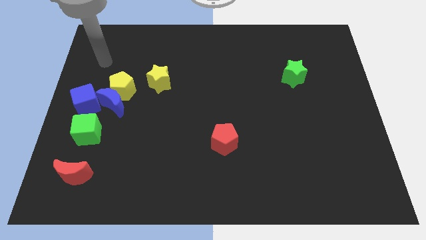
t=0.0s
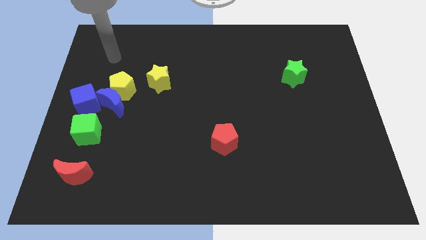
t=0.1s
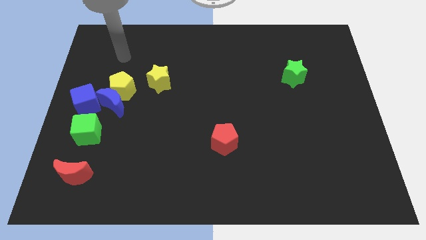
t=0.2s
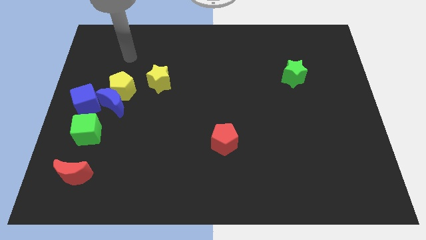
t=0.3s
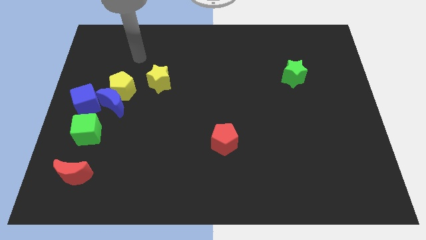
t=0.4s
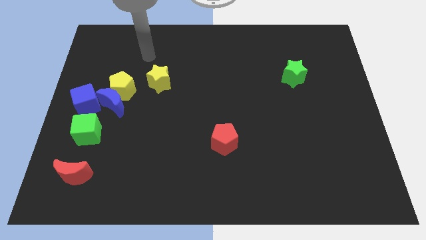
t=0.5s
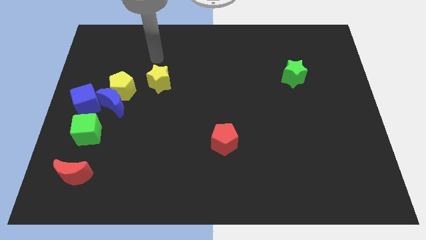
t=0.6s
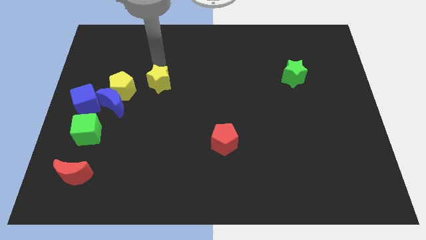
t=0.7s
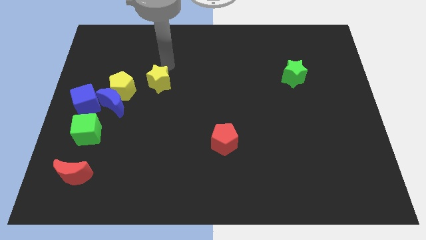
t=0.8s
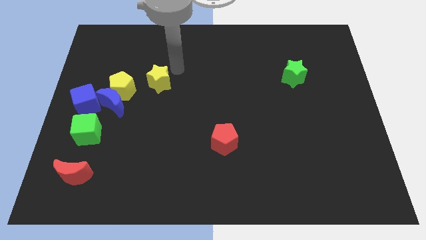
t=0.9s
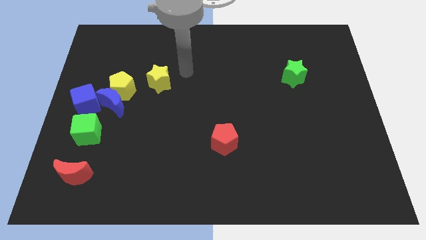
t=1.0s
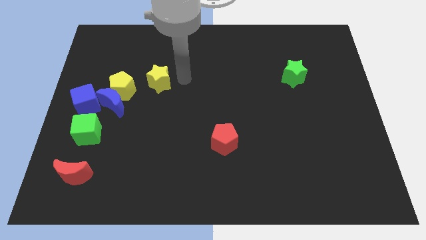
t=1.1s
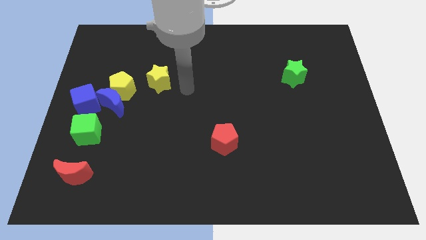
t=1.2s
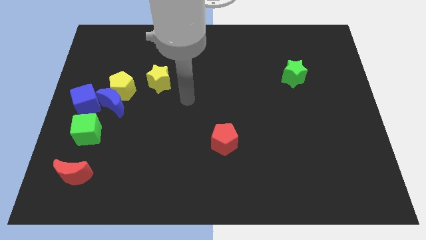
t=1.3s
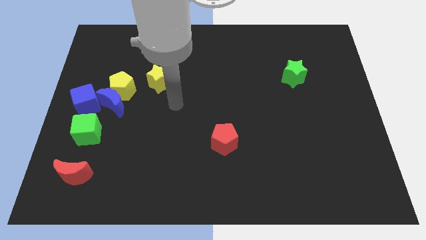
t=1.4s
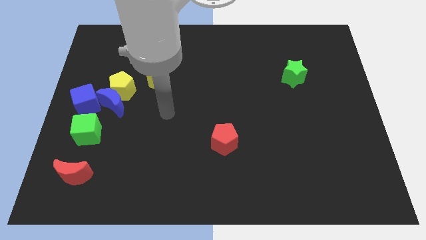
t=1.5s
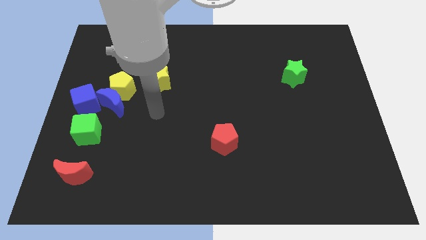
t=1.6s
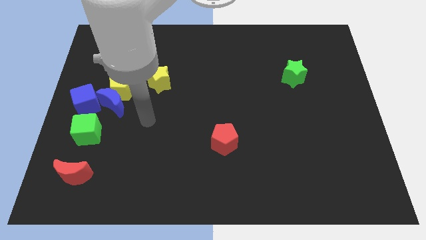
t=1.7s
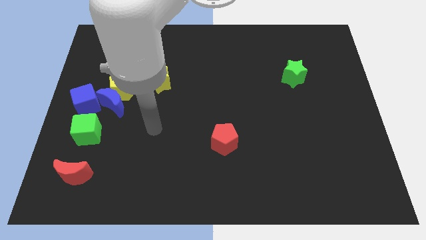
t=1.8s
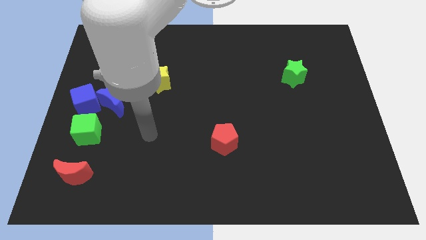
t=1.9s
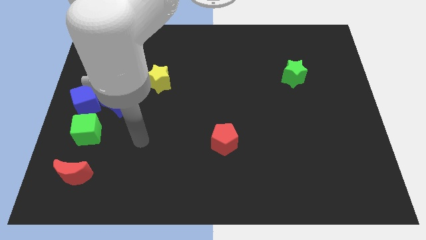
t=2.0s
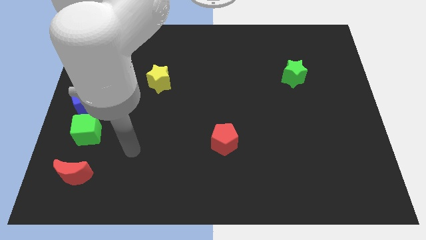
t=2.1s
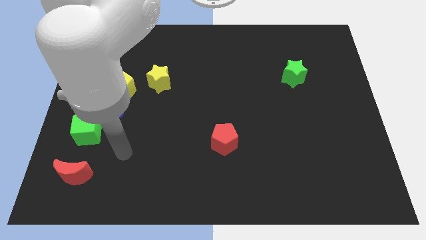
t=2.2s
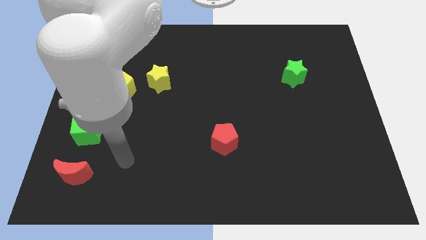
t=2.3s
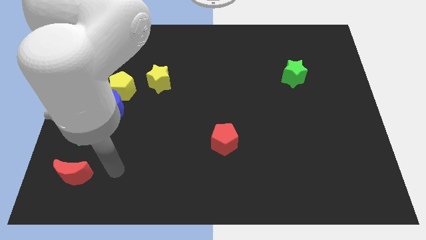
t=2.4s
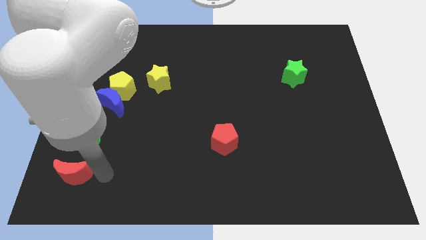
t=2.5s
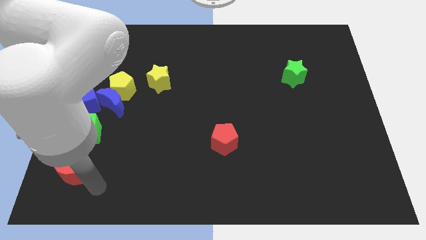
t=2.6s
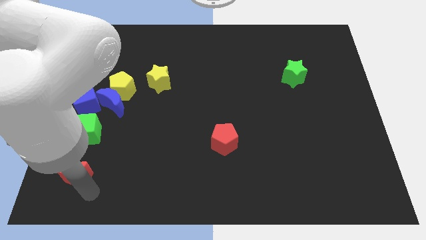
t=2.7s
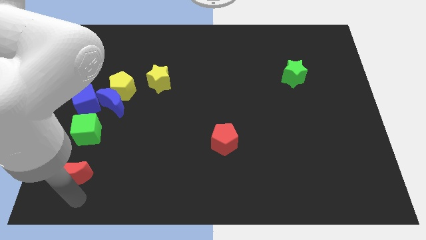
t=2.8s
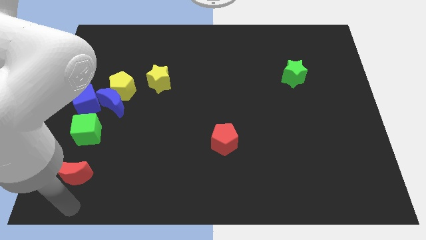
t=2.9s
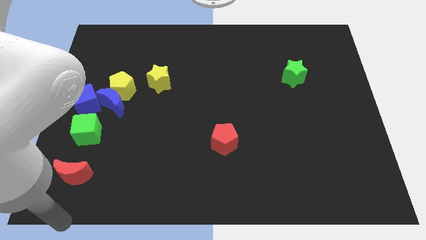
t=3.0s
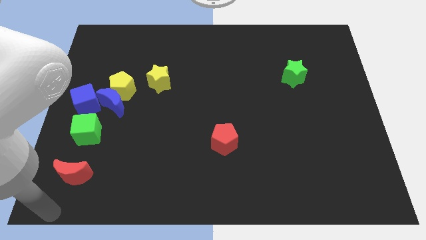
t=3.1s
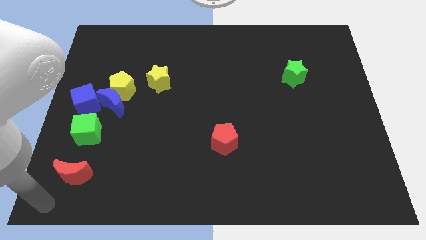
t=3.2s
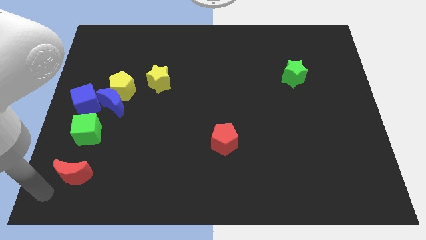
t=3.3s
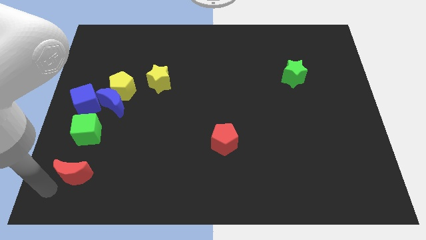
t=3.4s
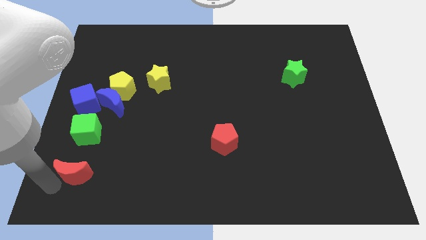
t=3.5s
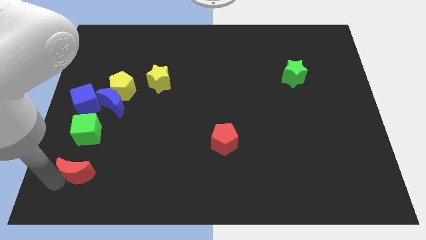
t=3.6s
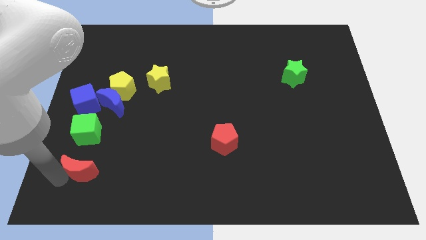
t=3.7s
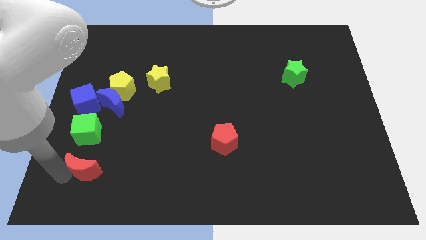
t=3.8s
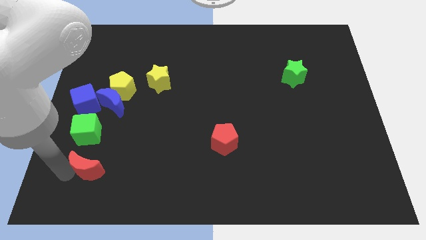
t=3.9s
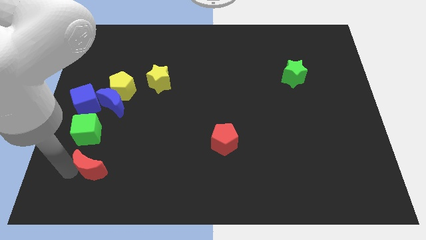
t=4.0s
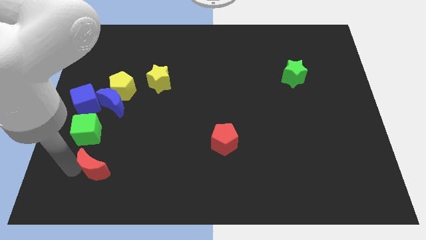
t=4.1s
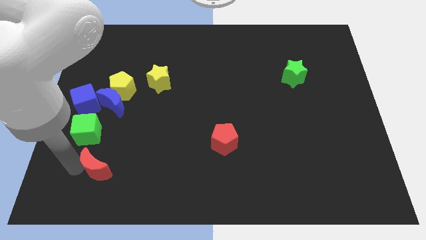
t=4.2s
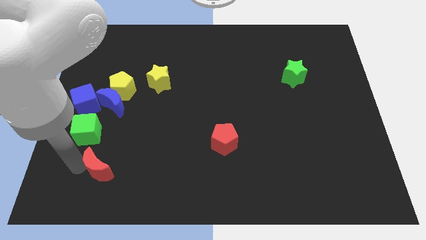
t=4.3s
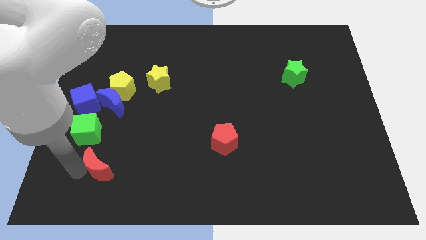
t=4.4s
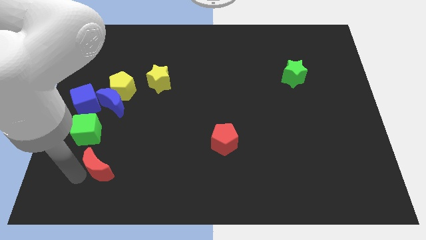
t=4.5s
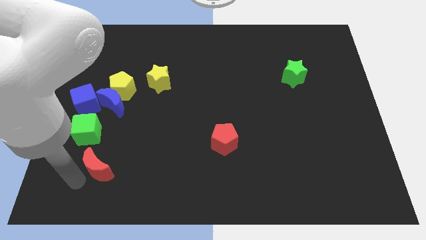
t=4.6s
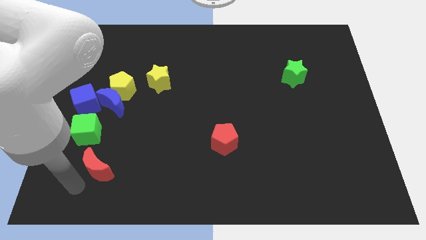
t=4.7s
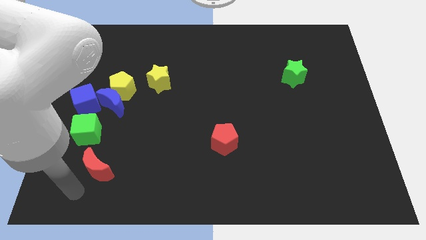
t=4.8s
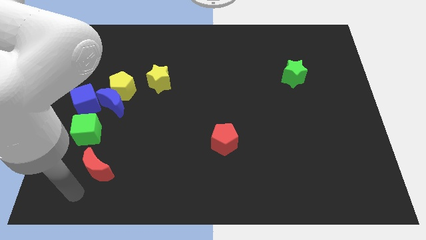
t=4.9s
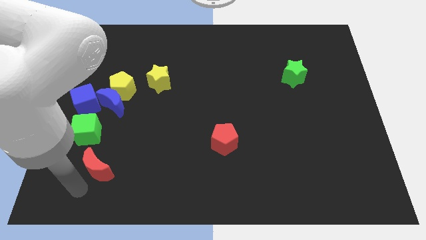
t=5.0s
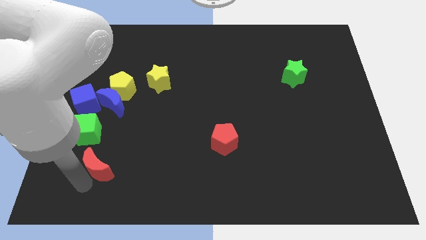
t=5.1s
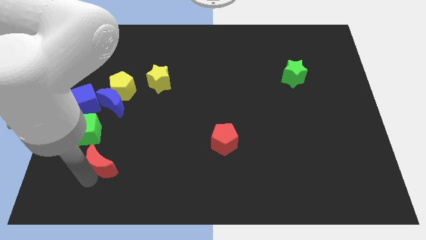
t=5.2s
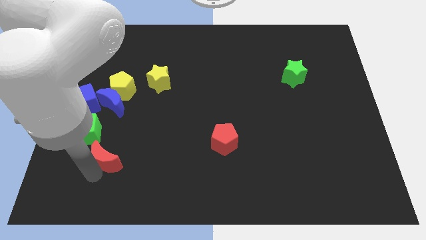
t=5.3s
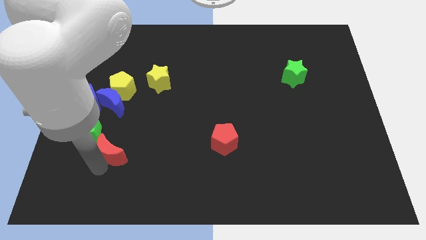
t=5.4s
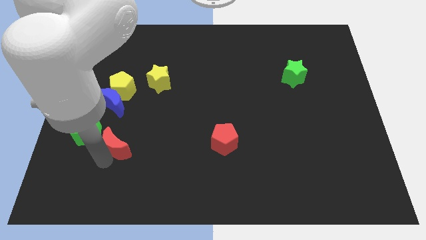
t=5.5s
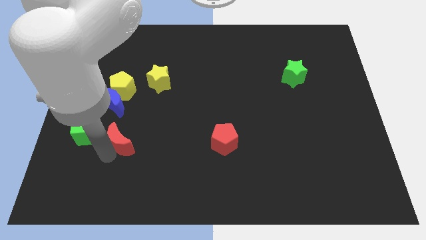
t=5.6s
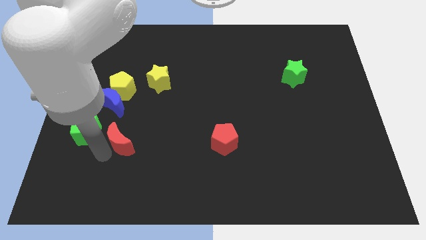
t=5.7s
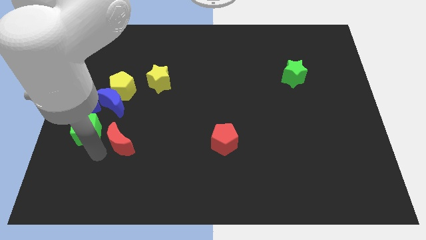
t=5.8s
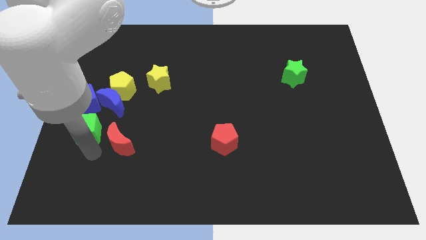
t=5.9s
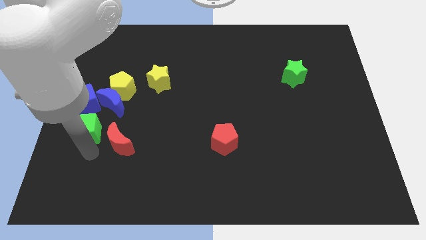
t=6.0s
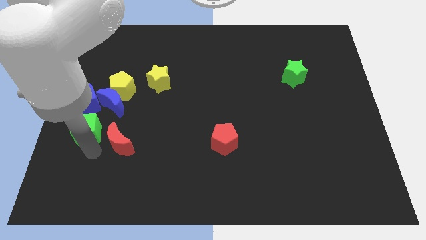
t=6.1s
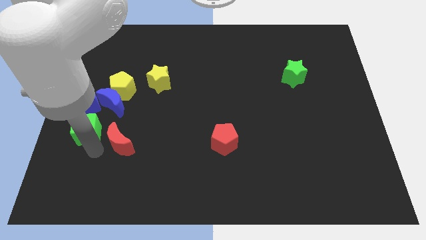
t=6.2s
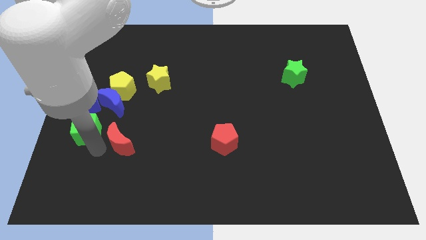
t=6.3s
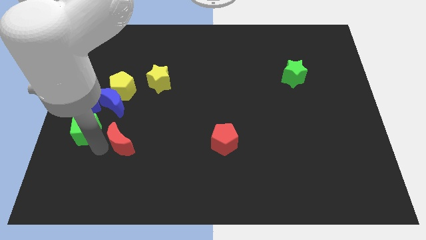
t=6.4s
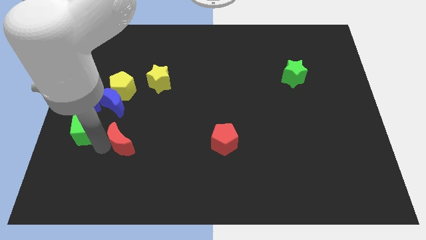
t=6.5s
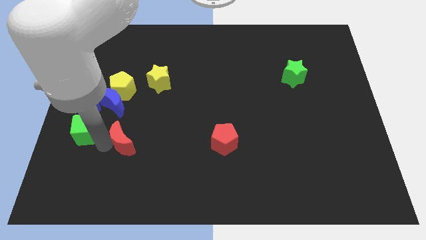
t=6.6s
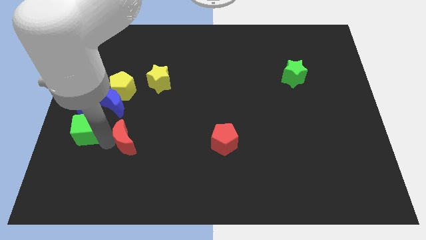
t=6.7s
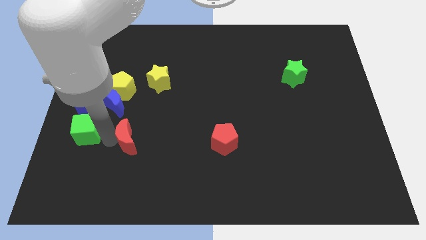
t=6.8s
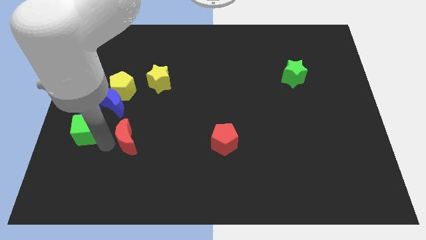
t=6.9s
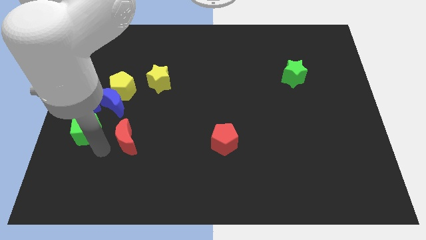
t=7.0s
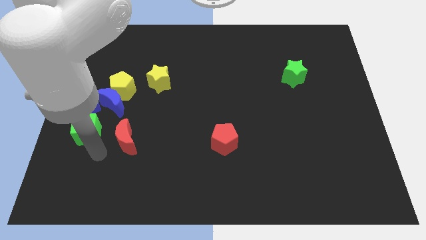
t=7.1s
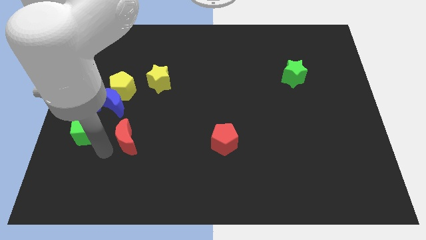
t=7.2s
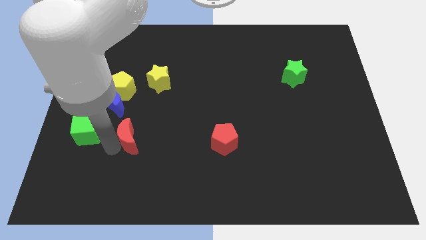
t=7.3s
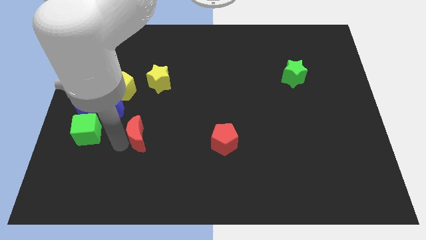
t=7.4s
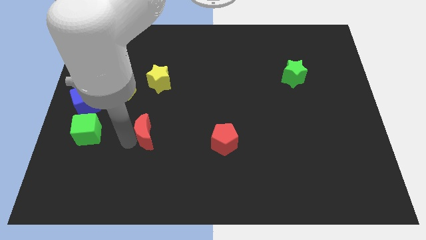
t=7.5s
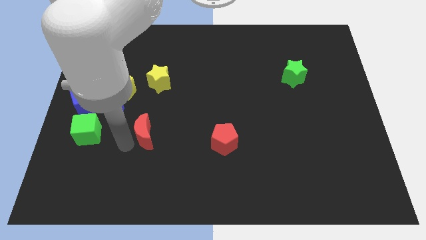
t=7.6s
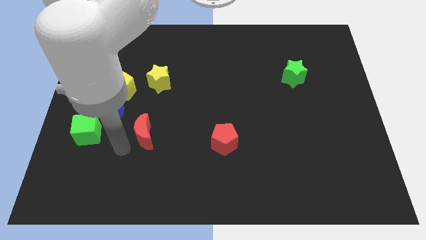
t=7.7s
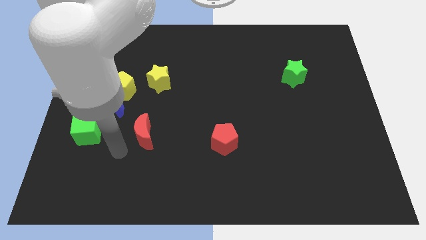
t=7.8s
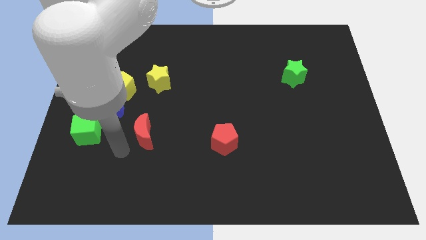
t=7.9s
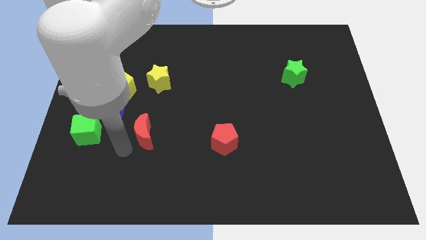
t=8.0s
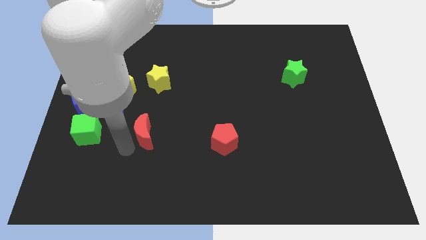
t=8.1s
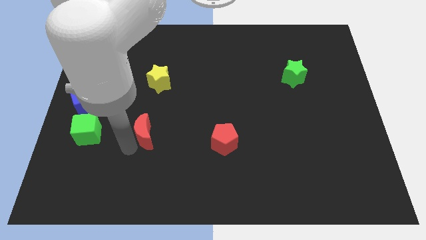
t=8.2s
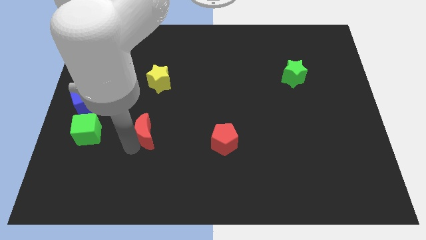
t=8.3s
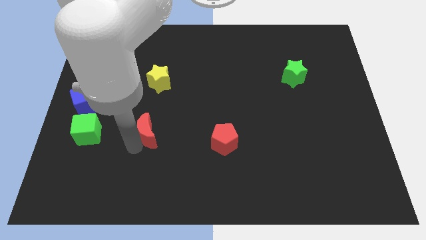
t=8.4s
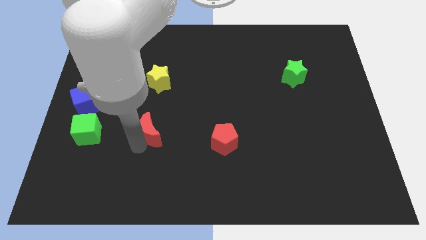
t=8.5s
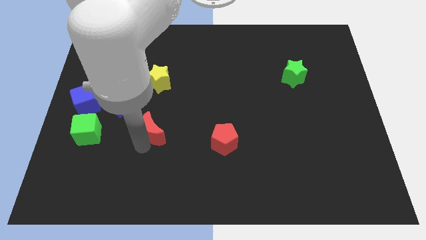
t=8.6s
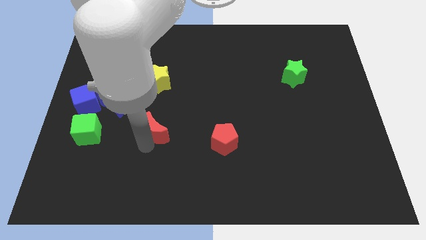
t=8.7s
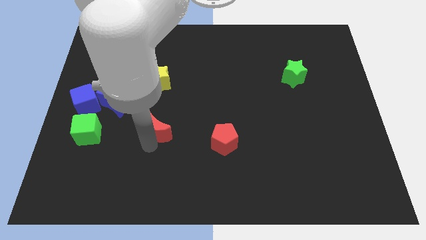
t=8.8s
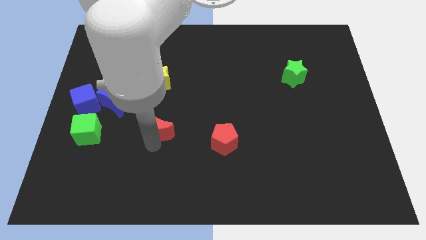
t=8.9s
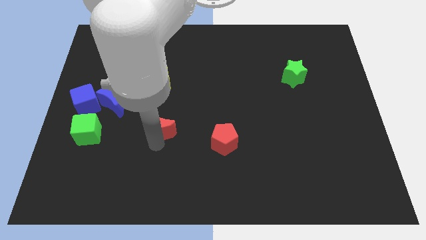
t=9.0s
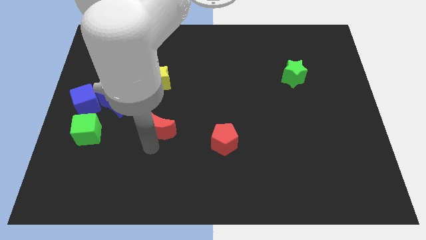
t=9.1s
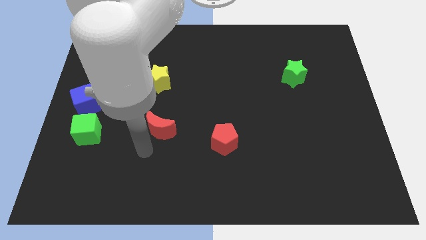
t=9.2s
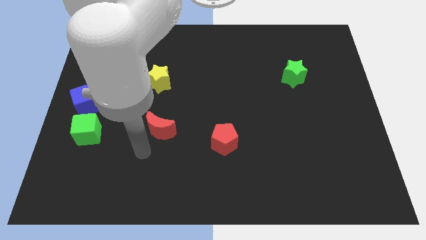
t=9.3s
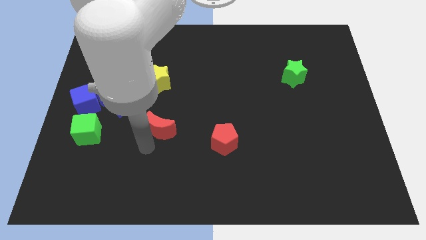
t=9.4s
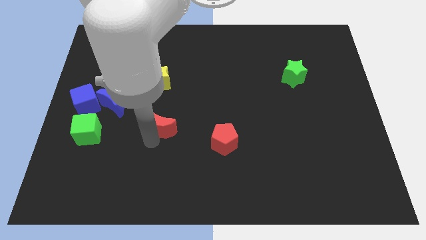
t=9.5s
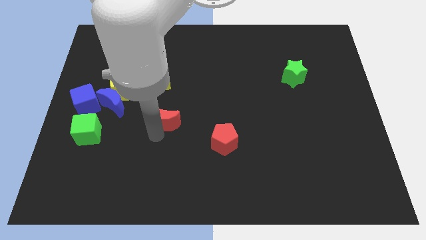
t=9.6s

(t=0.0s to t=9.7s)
put the red moon to the middle
